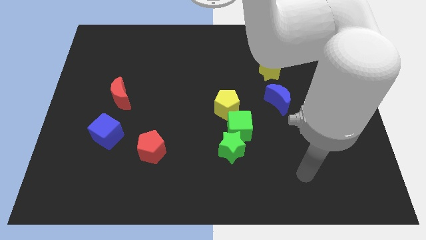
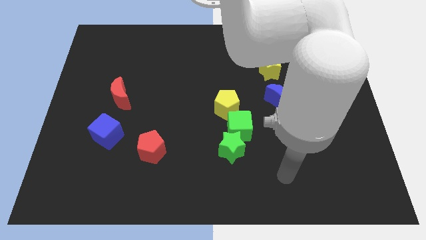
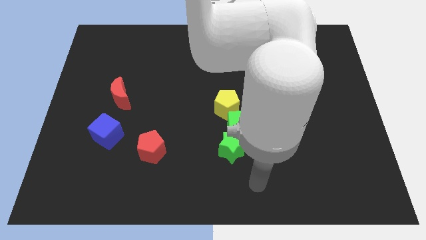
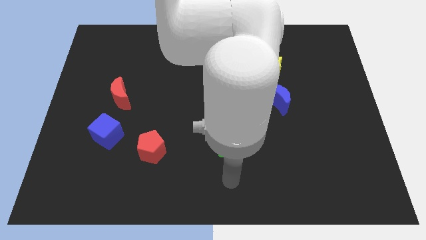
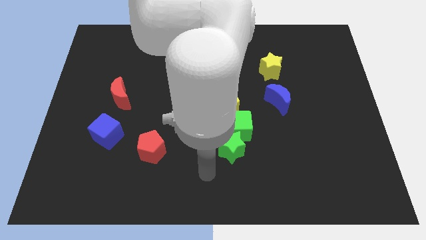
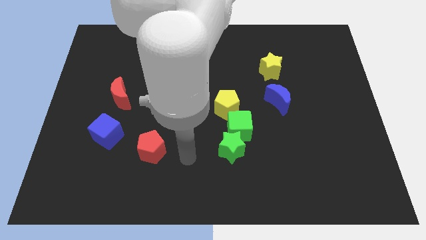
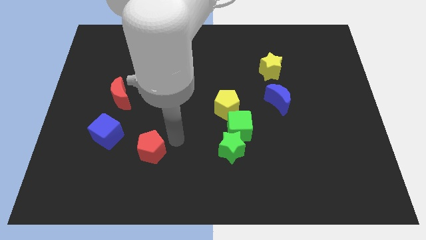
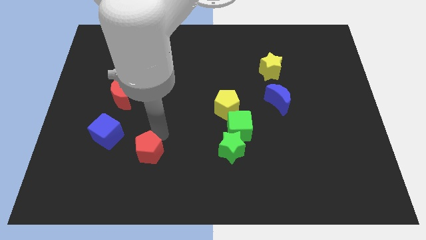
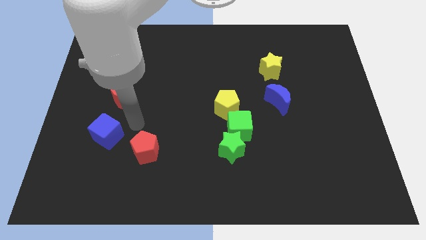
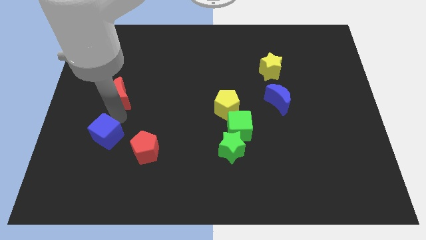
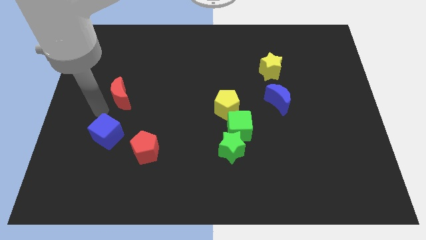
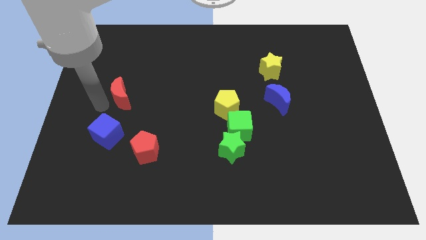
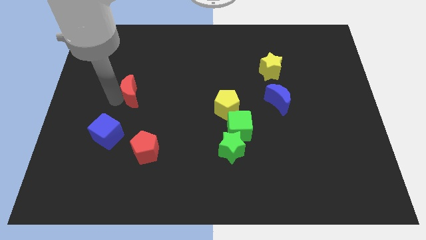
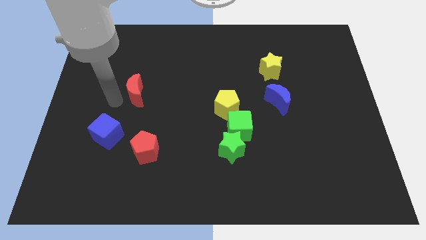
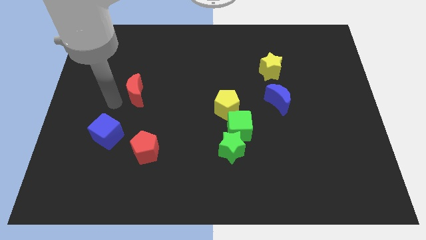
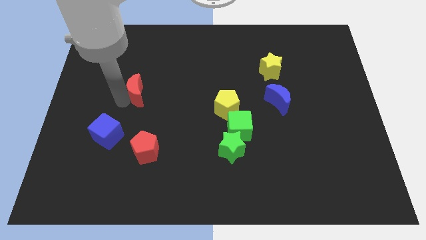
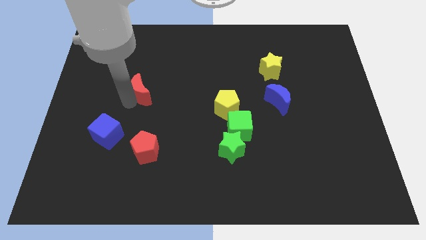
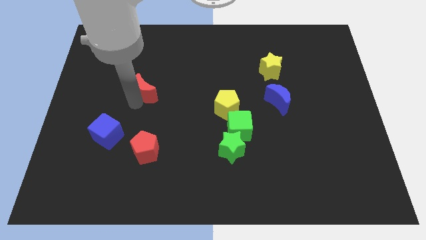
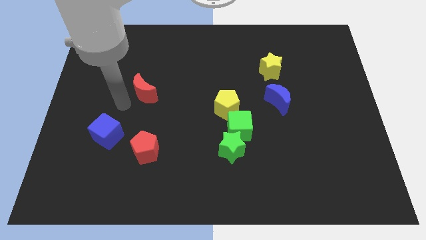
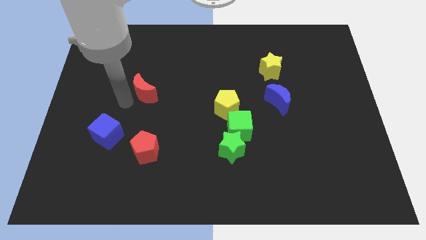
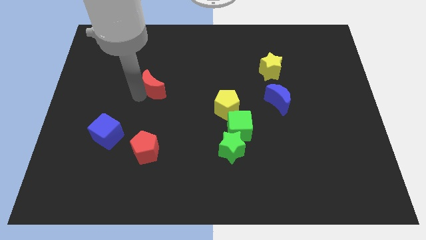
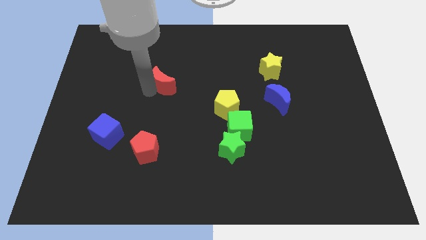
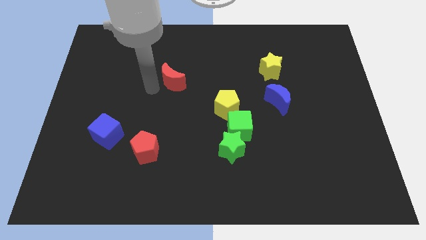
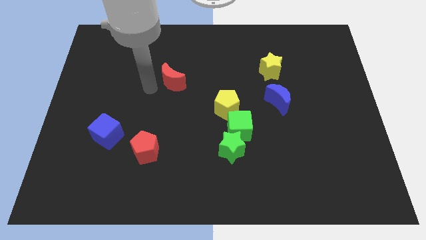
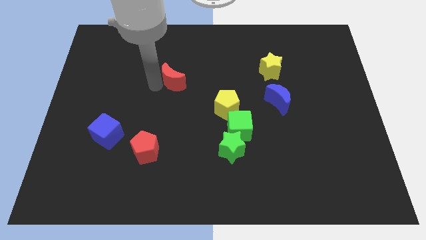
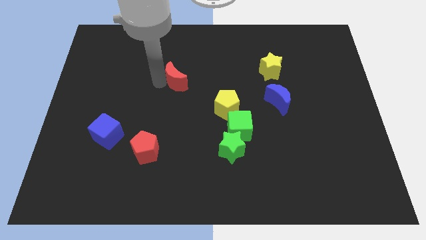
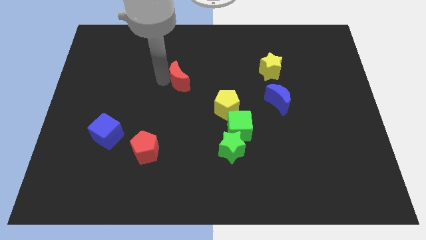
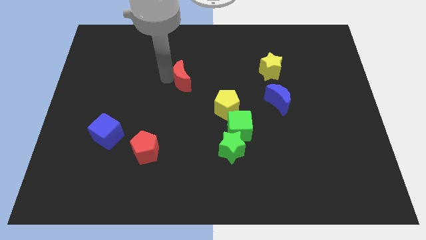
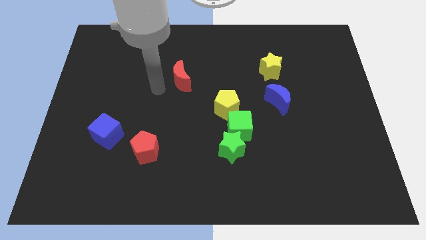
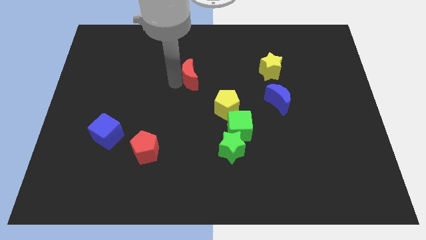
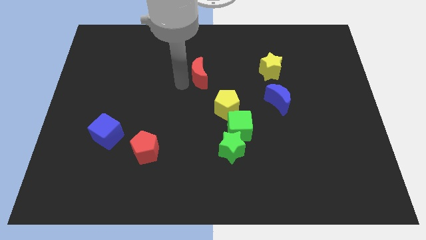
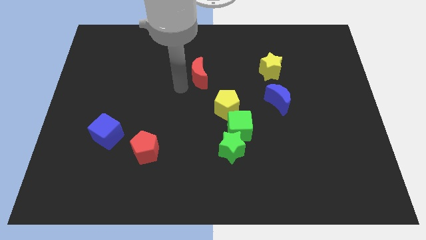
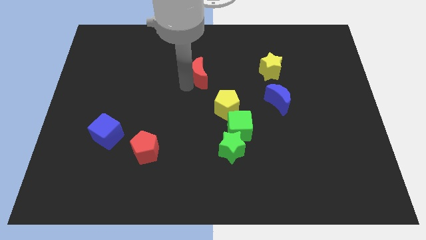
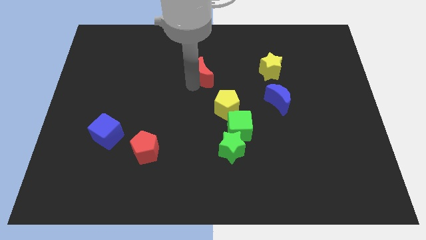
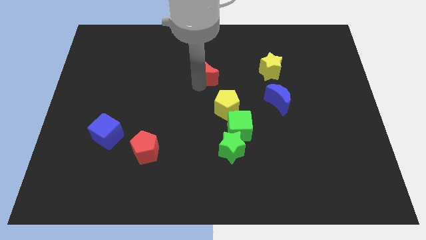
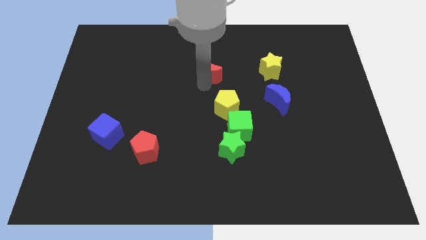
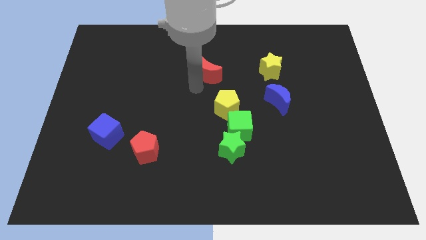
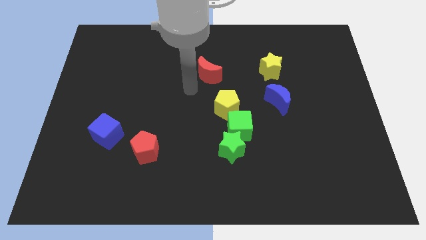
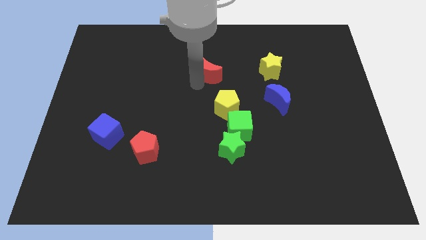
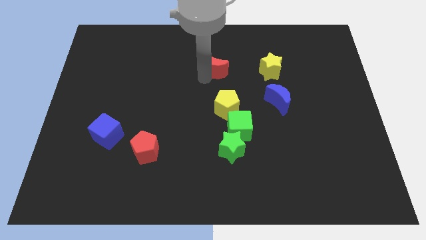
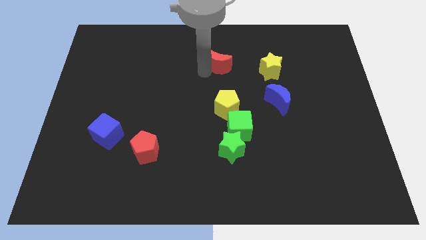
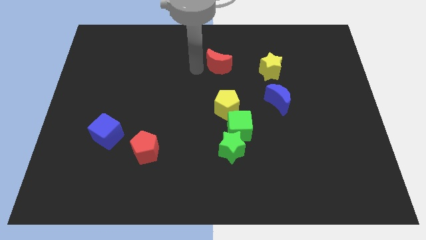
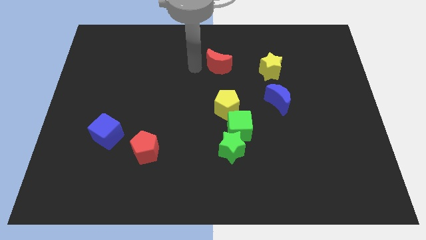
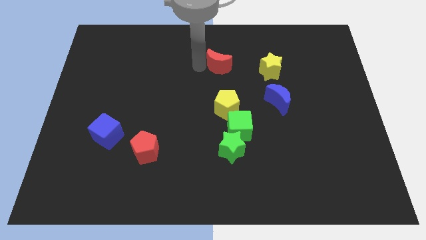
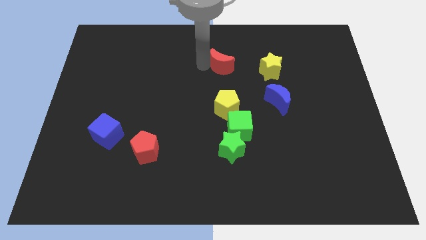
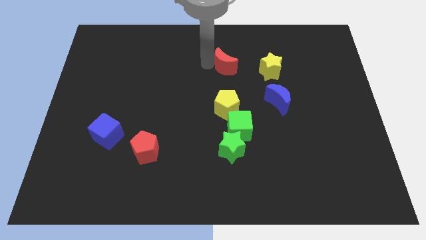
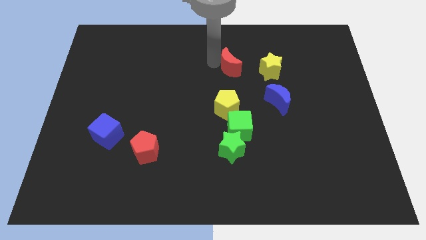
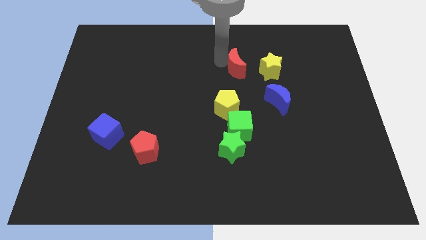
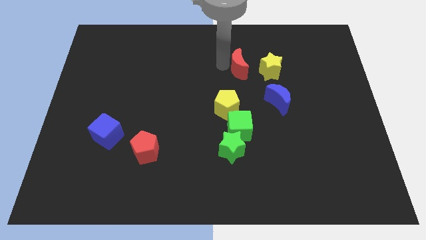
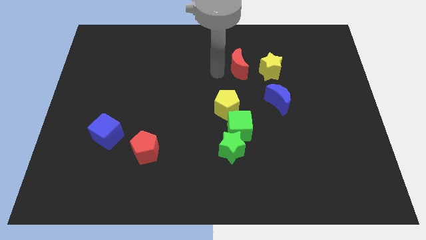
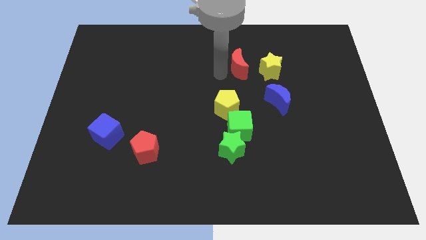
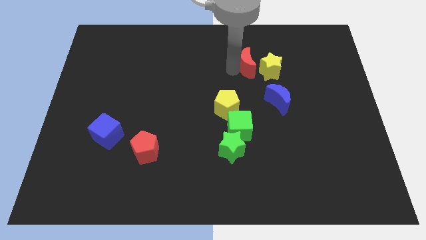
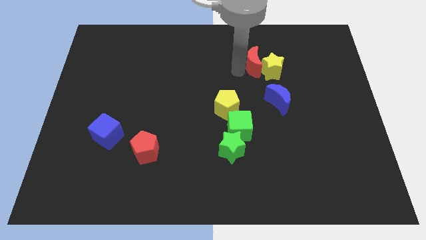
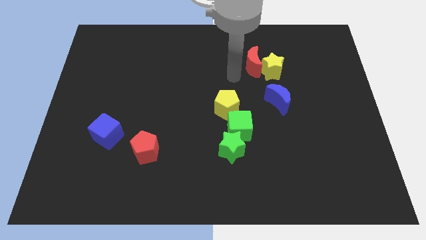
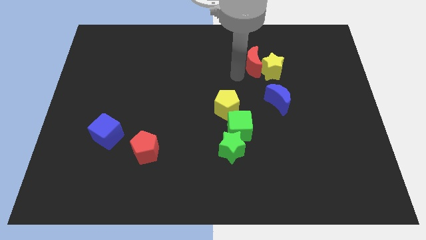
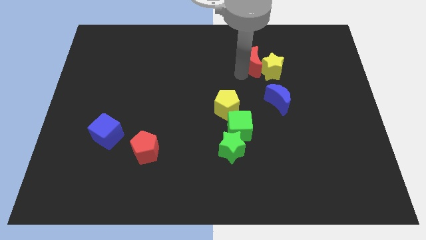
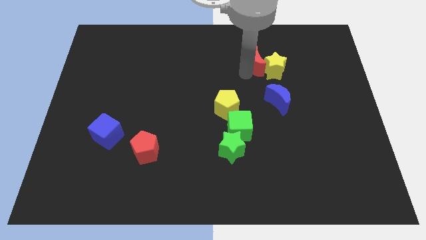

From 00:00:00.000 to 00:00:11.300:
push the red moon to the top of the blue moon

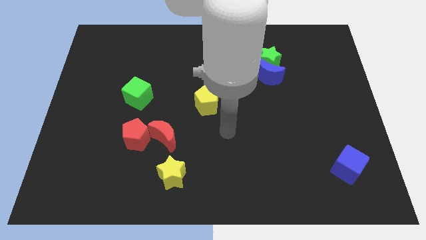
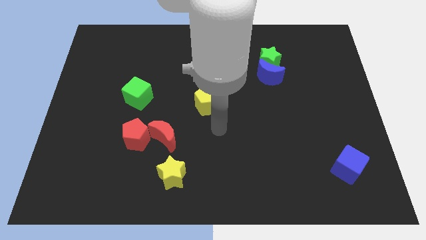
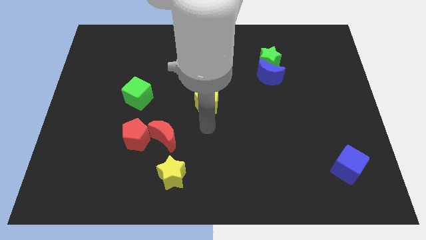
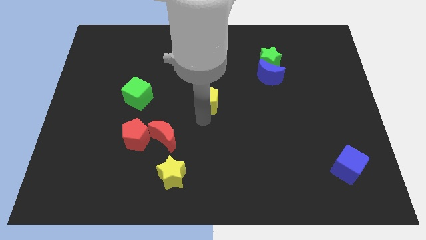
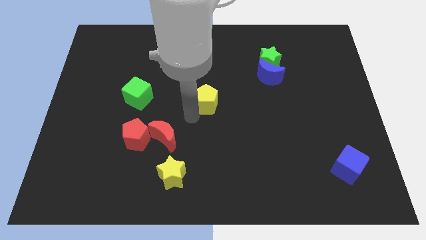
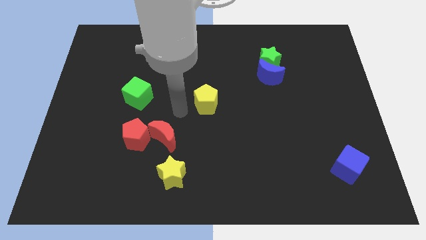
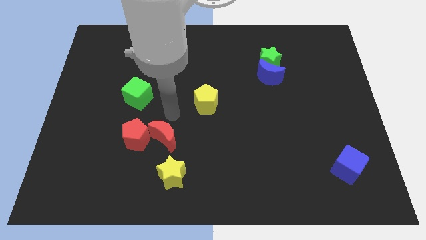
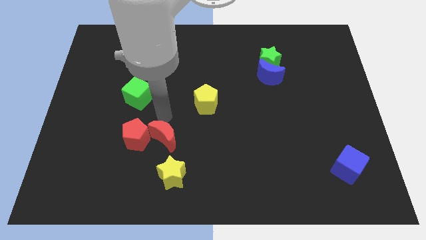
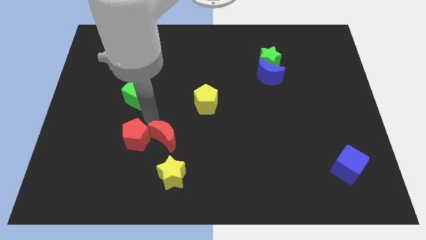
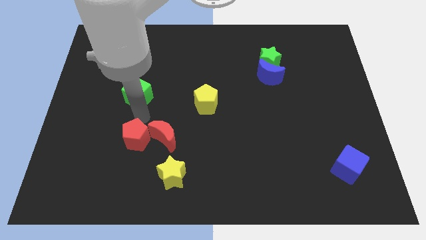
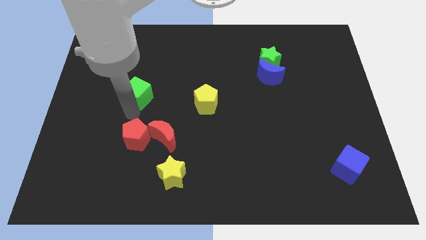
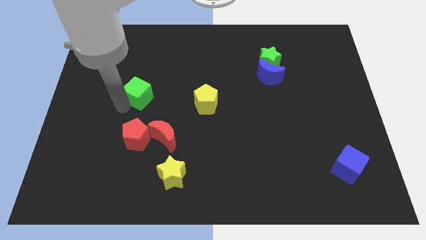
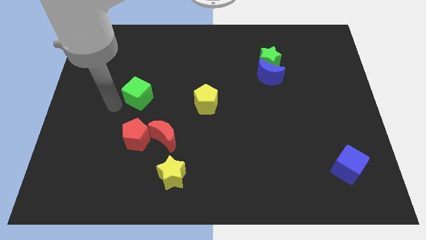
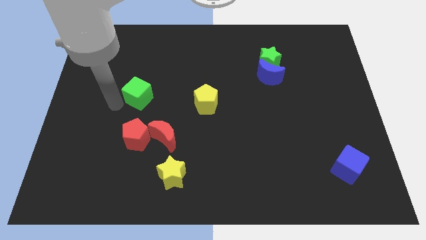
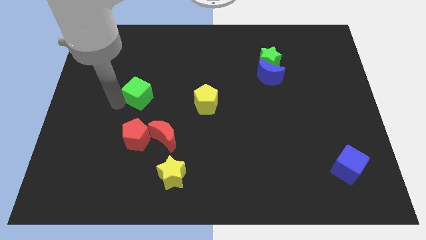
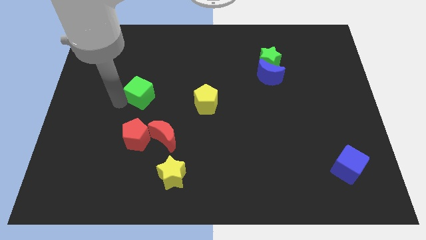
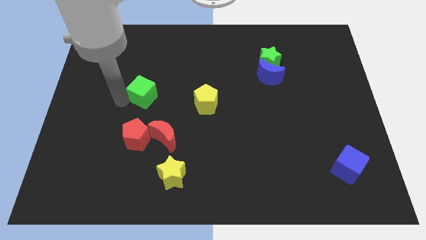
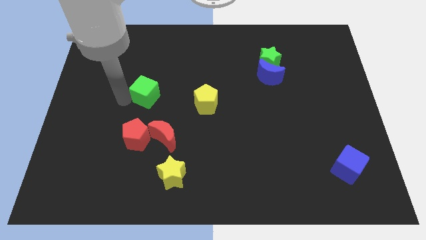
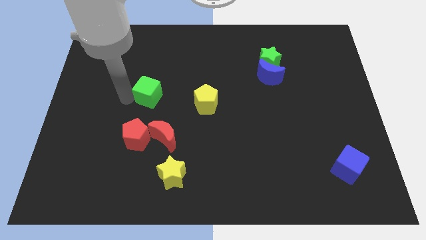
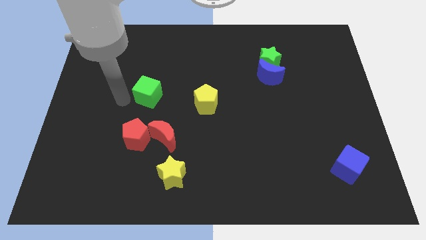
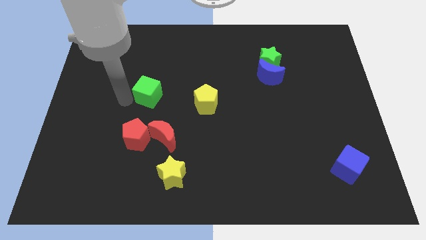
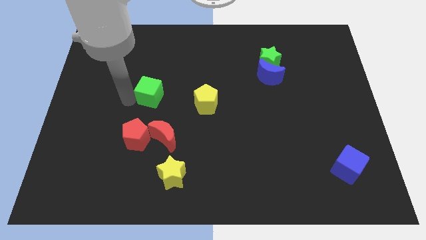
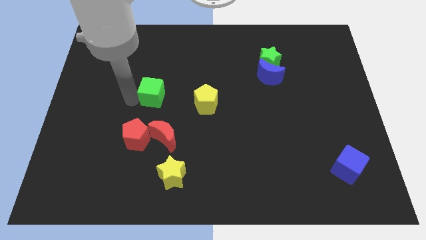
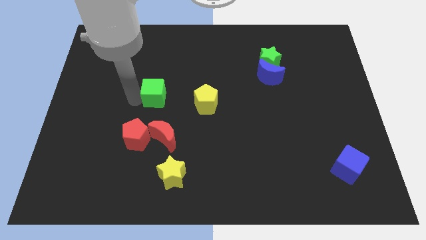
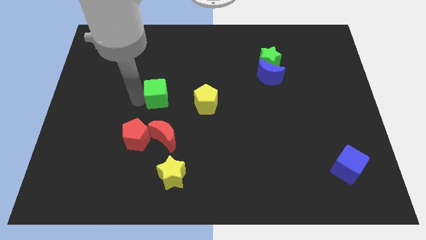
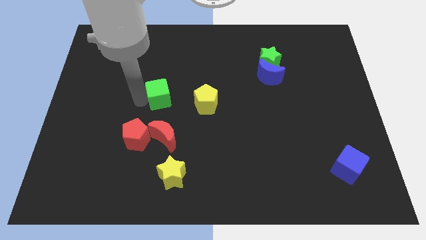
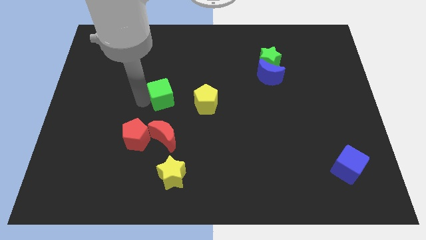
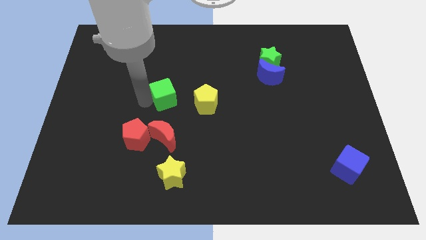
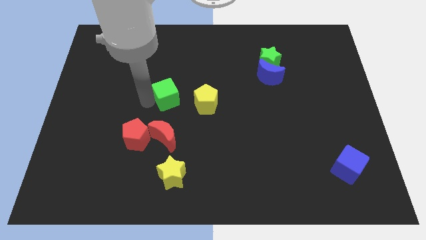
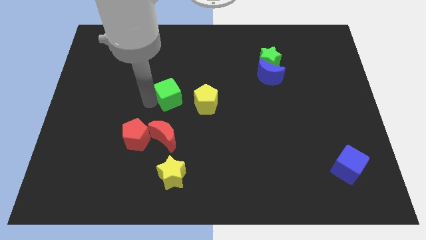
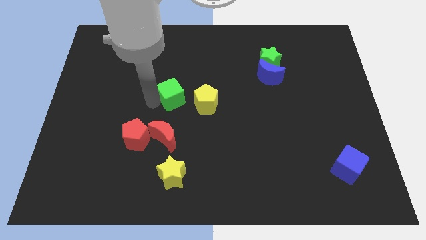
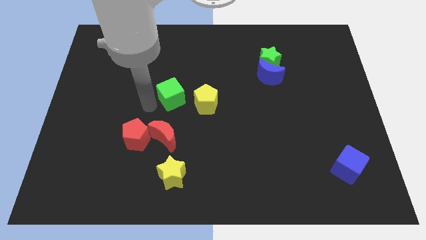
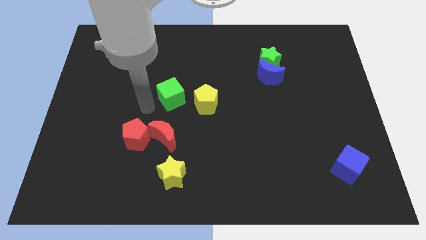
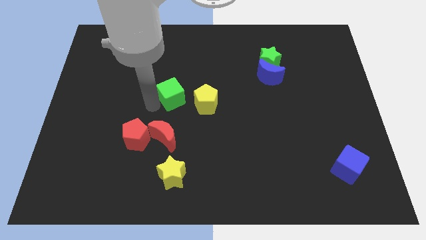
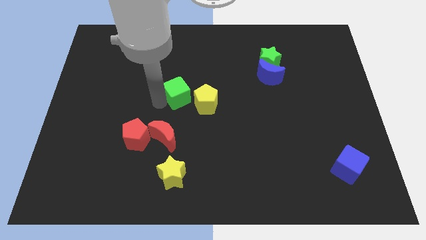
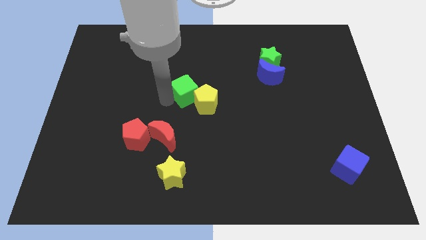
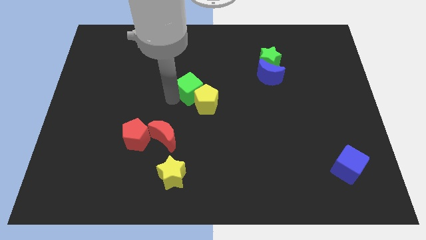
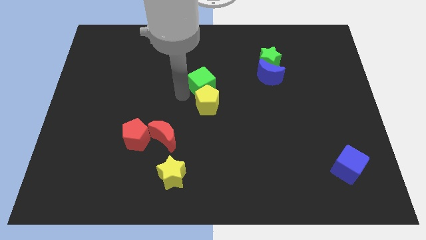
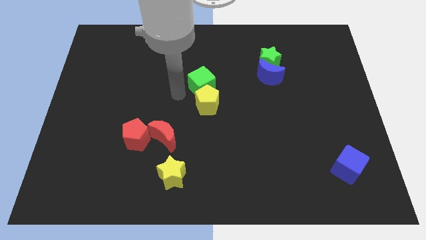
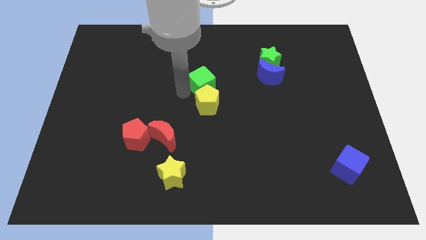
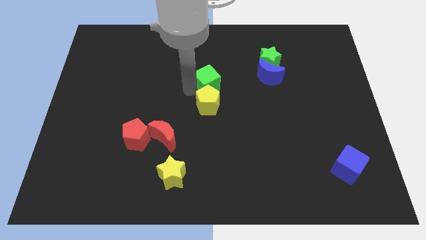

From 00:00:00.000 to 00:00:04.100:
push the green cube just left of the blue moon
